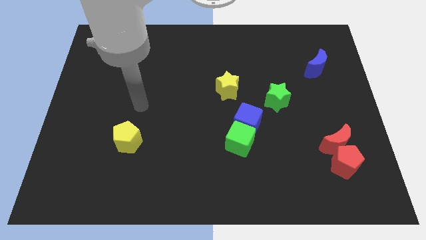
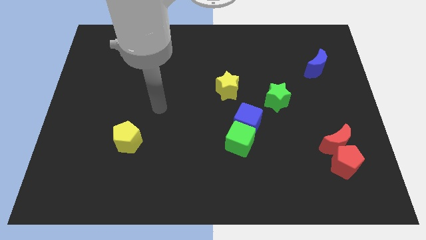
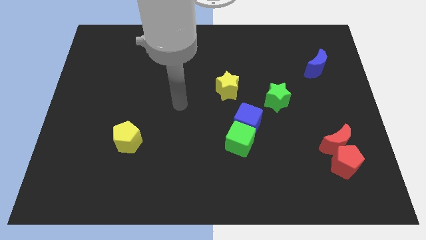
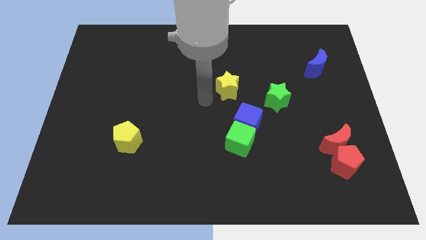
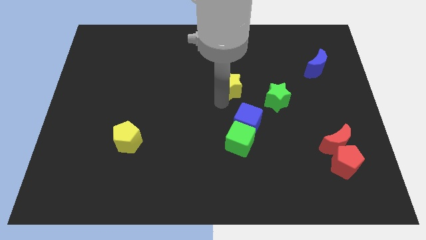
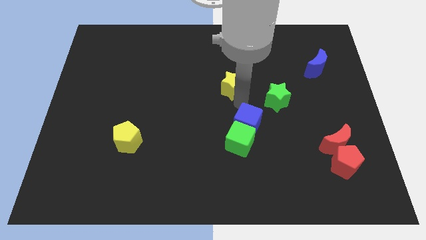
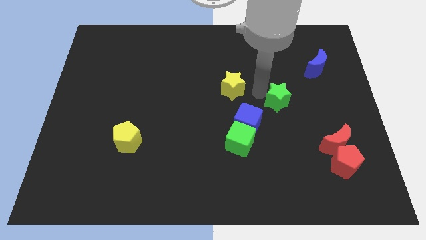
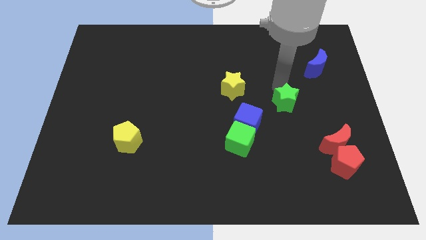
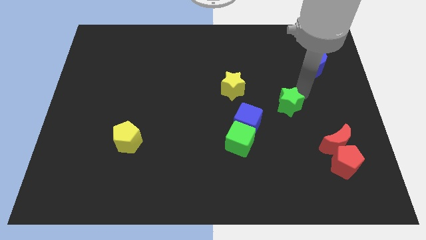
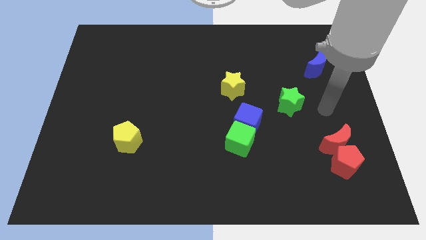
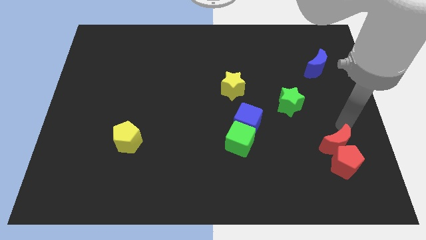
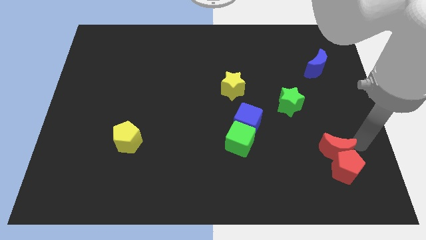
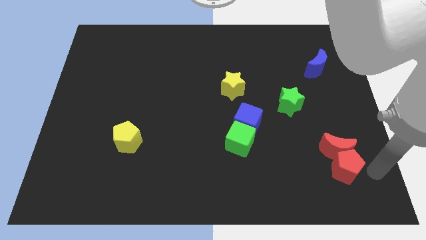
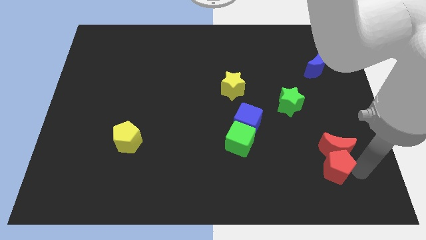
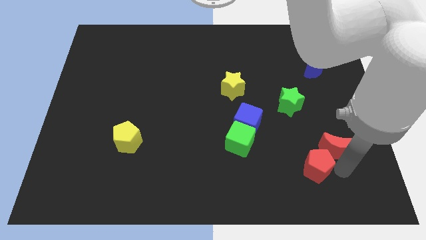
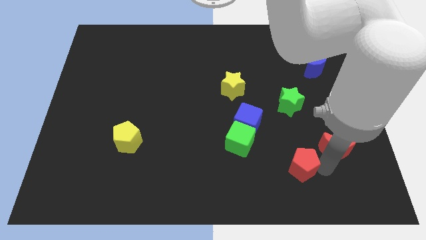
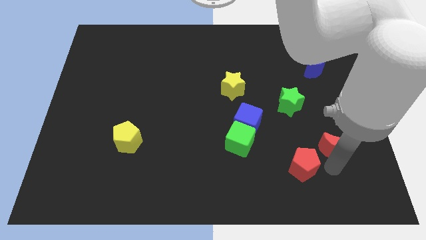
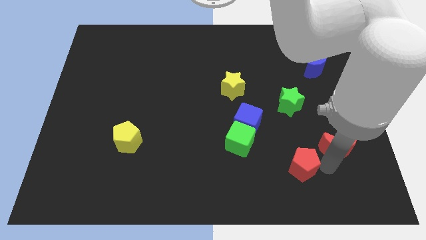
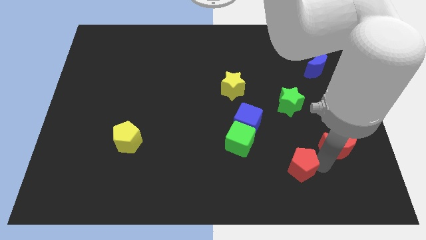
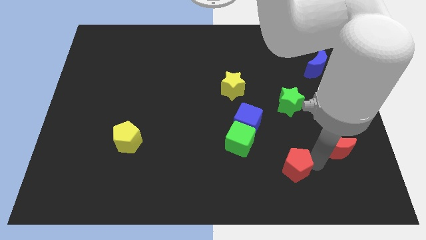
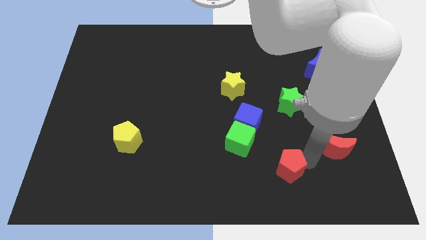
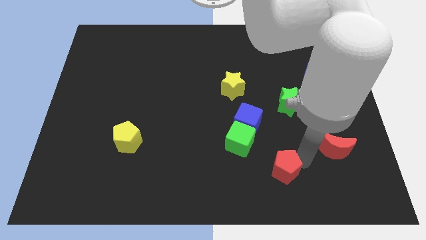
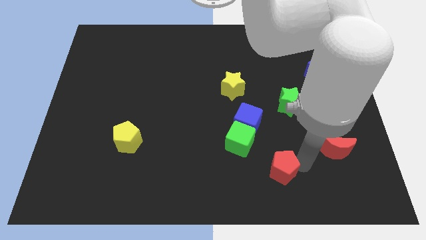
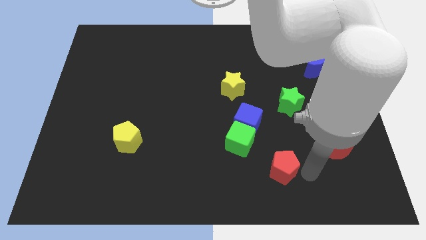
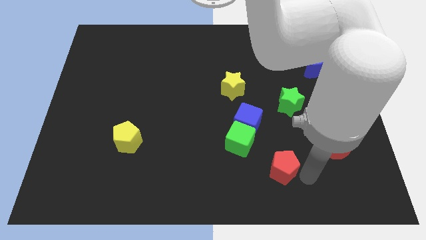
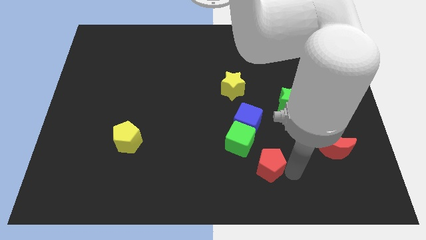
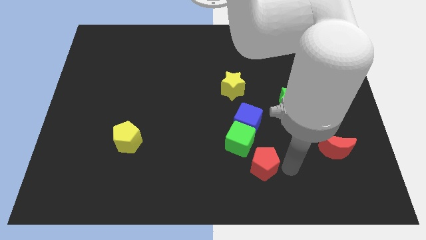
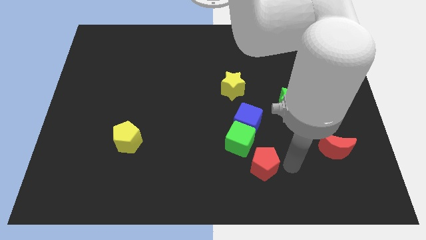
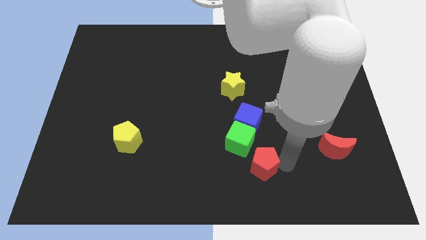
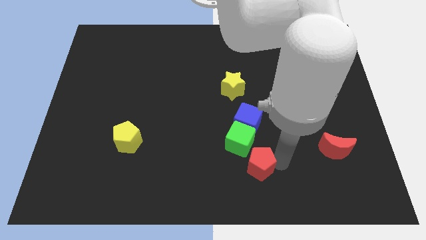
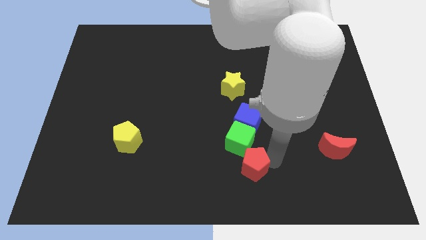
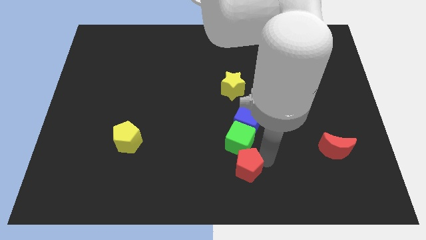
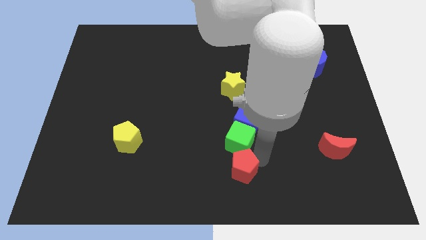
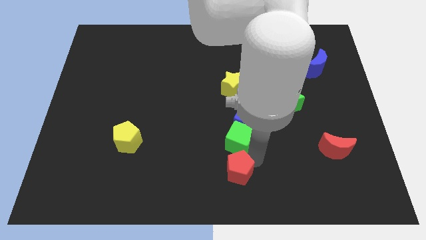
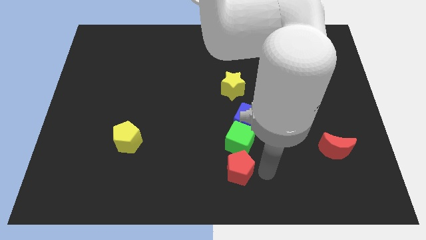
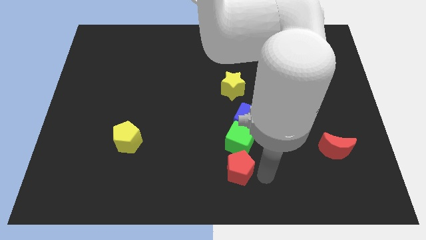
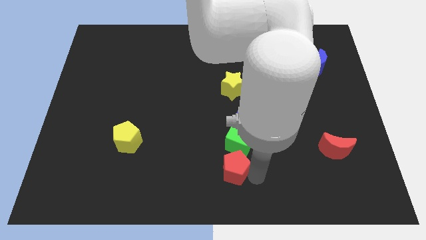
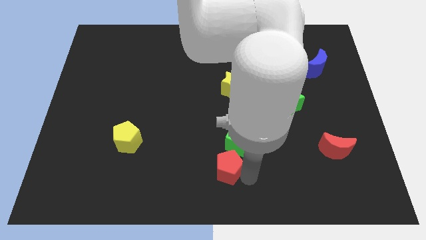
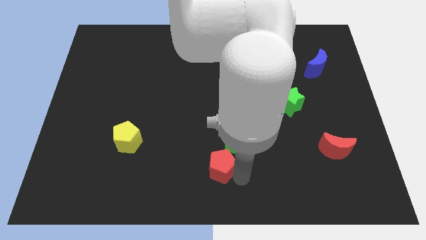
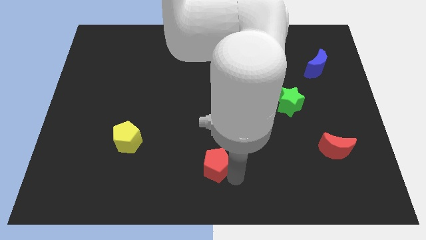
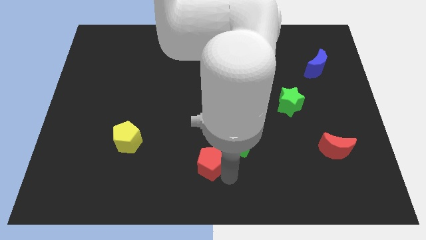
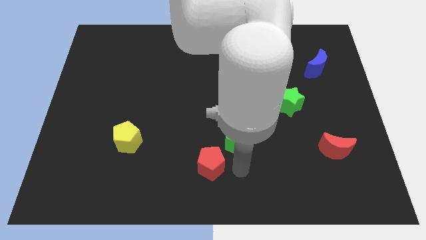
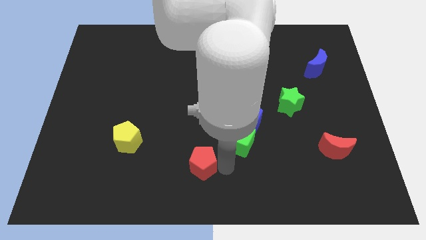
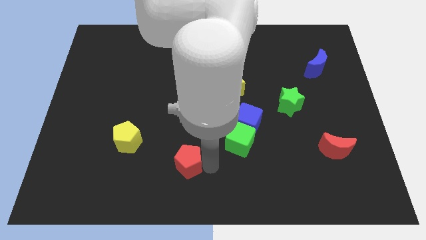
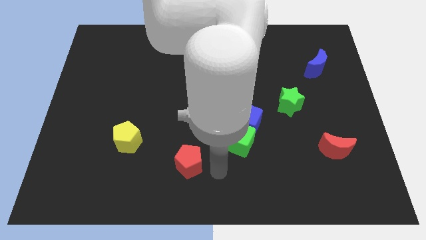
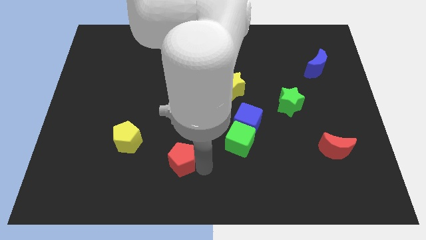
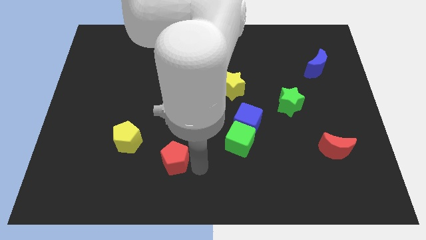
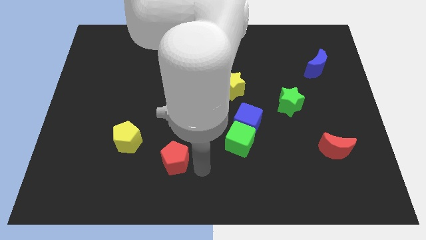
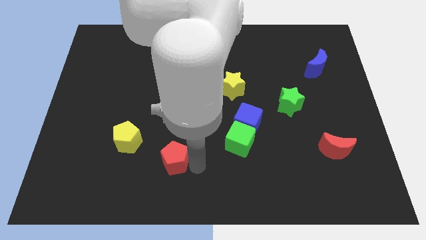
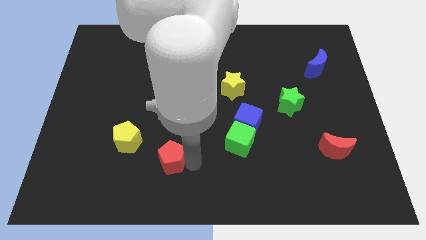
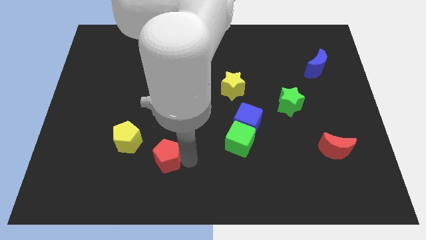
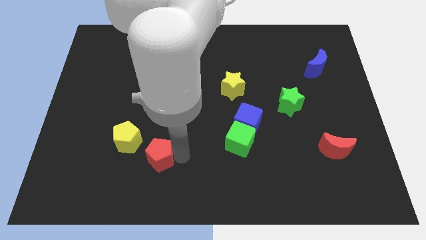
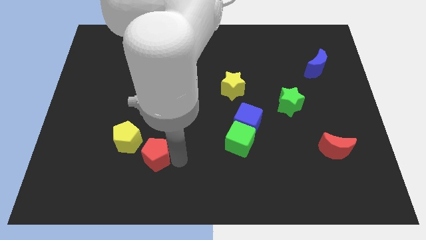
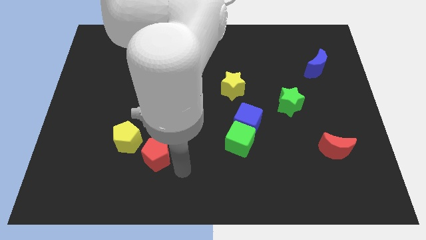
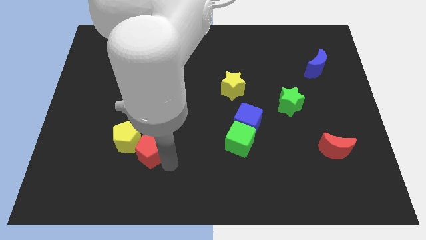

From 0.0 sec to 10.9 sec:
slide the red pentagon towards the yellow pentagon

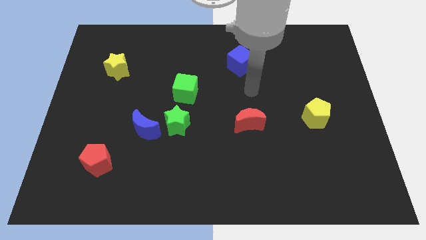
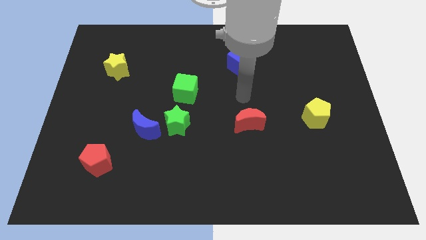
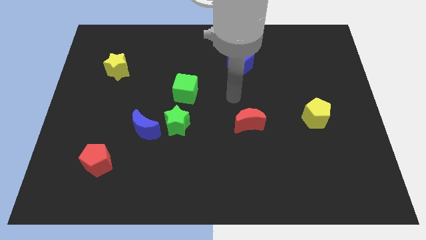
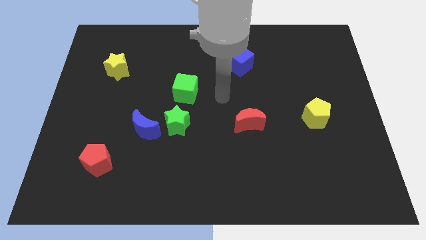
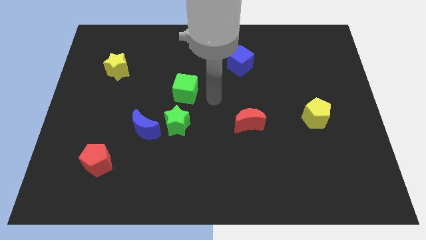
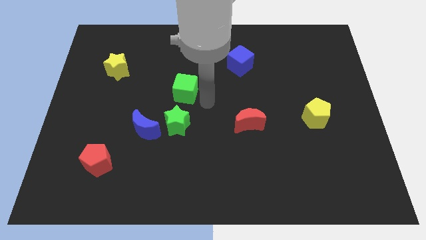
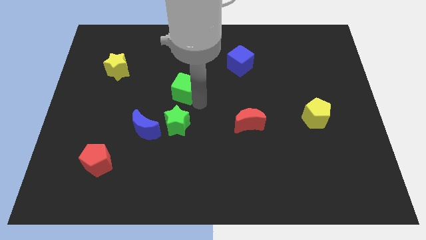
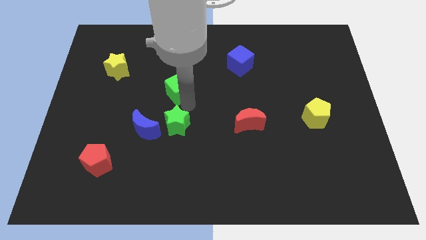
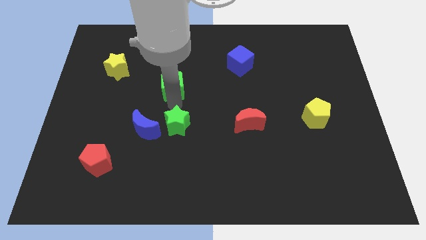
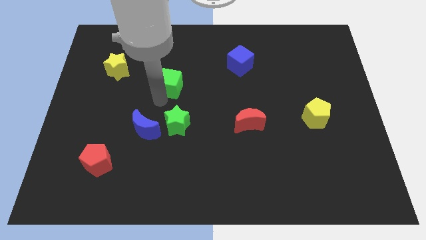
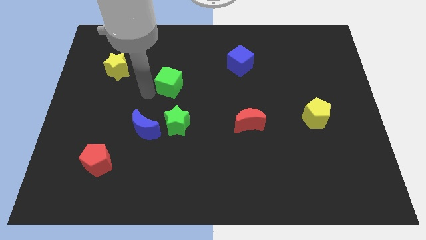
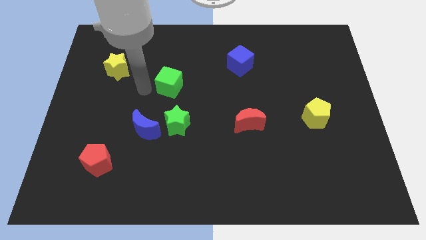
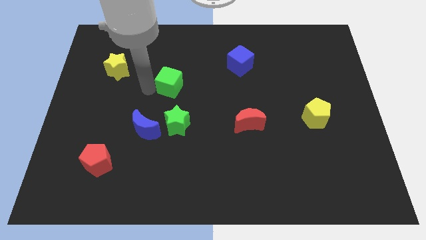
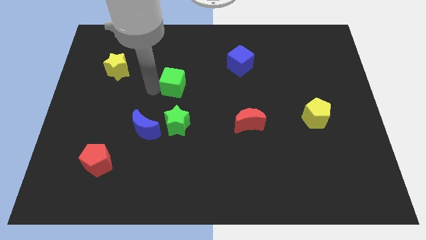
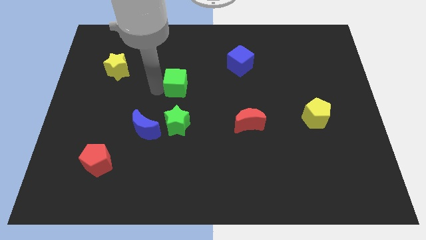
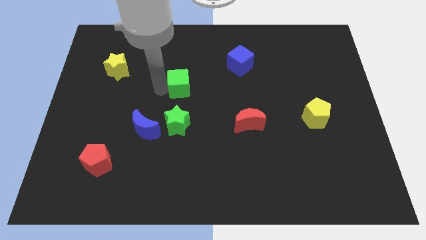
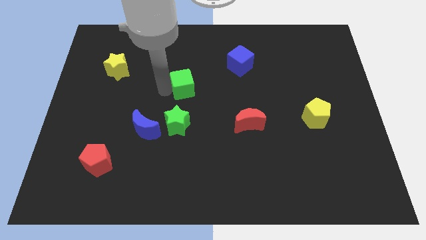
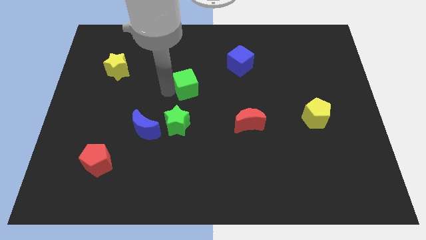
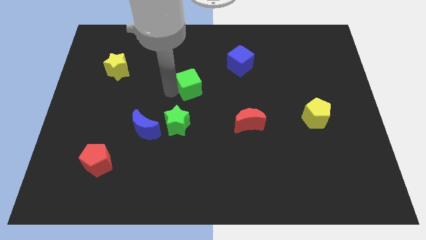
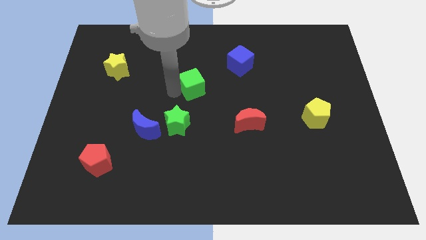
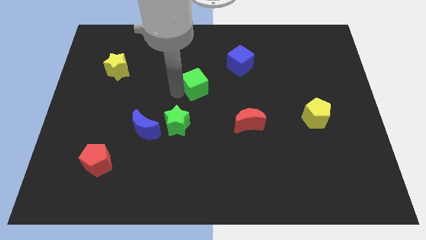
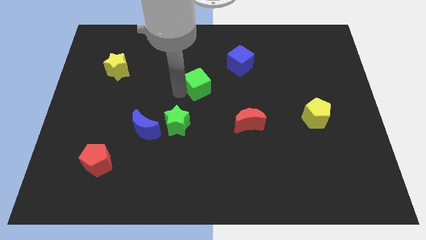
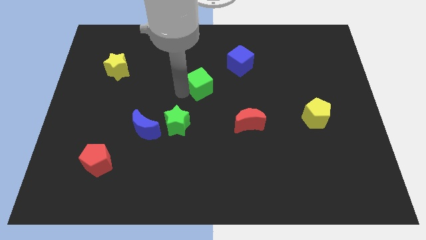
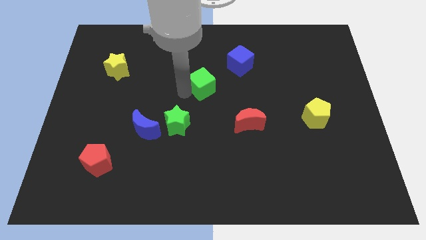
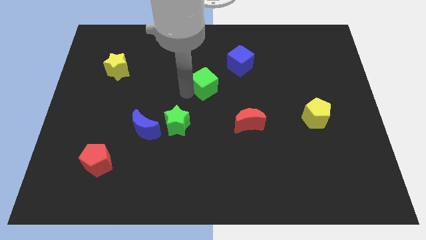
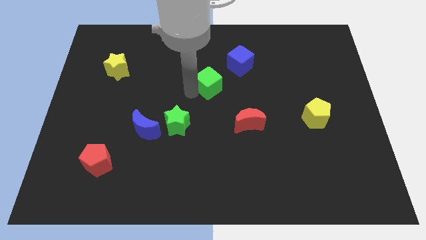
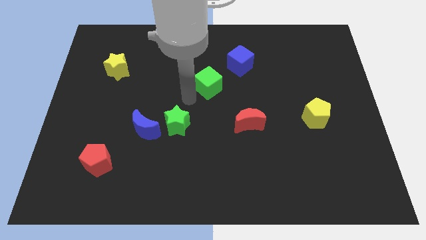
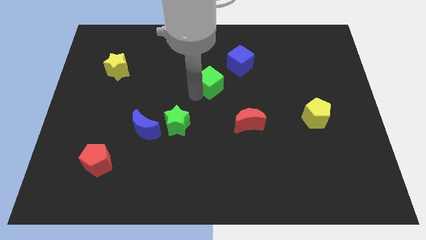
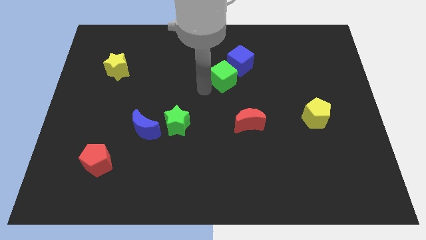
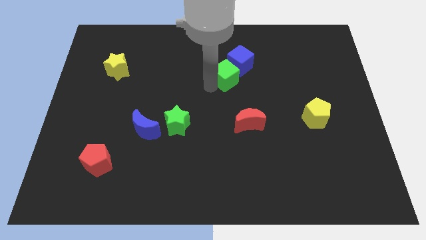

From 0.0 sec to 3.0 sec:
push the green cube towards the blue cube
